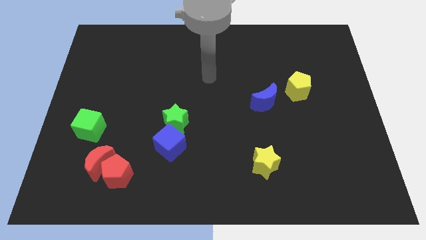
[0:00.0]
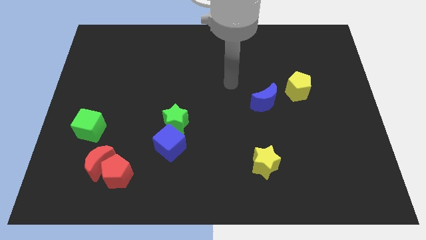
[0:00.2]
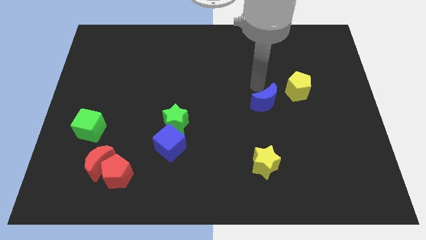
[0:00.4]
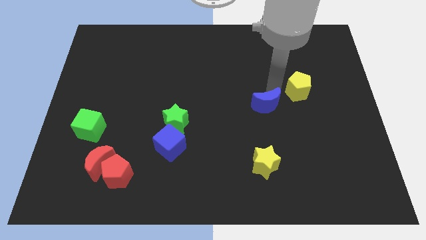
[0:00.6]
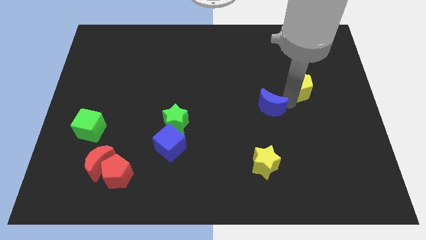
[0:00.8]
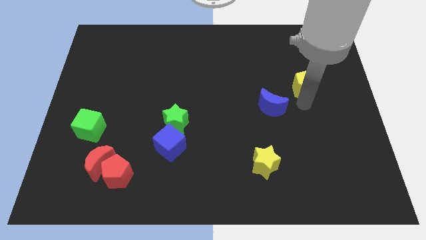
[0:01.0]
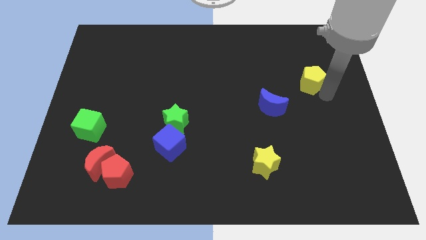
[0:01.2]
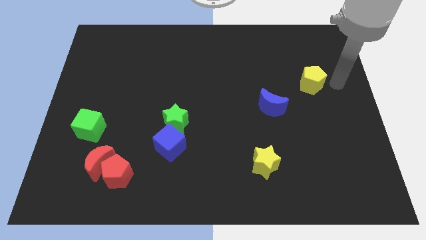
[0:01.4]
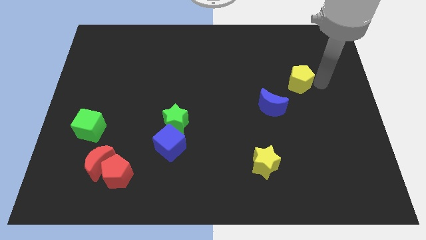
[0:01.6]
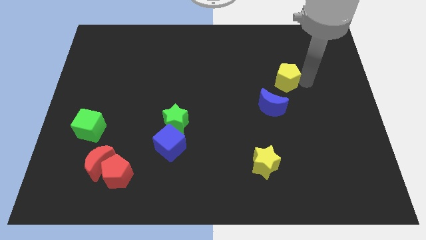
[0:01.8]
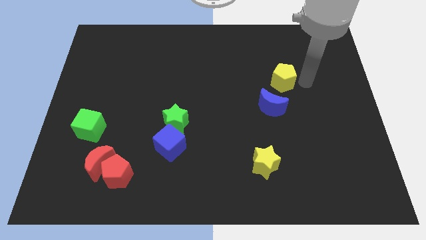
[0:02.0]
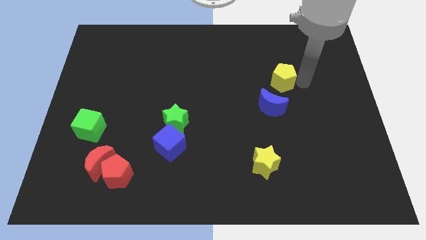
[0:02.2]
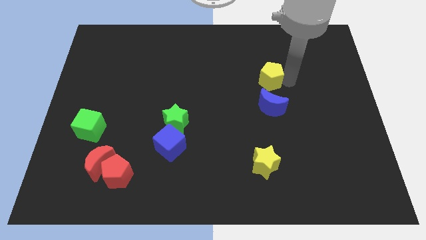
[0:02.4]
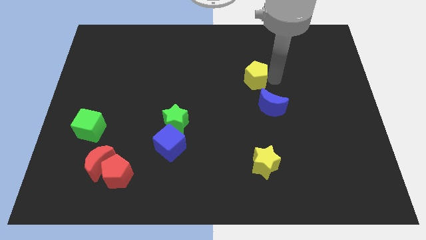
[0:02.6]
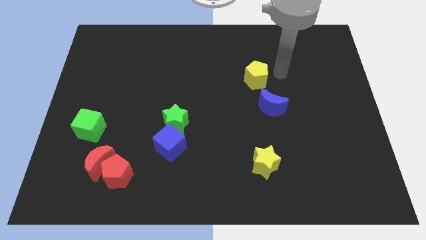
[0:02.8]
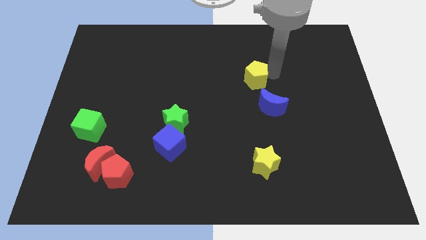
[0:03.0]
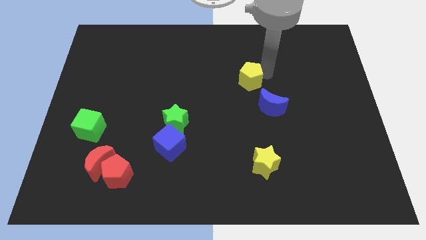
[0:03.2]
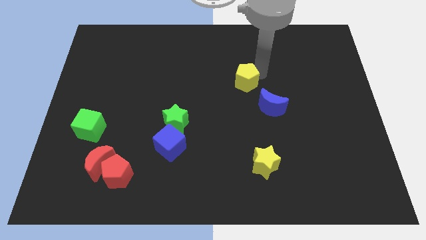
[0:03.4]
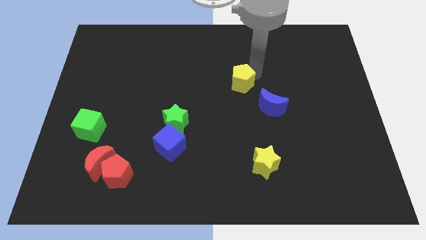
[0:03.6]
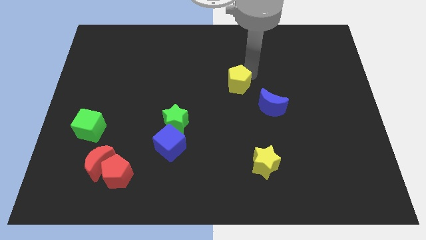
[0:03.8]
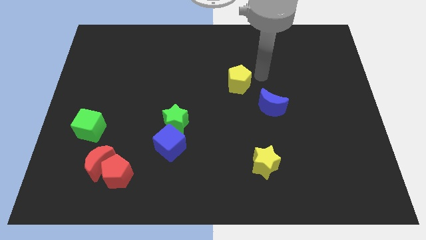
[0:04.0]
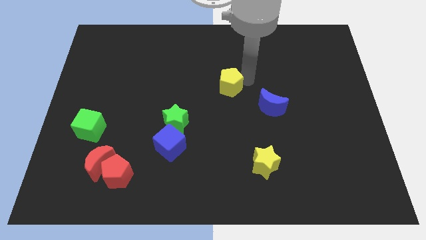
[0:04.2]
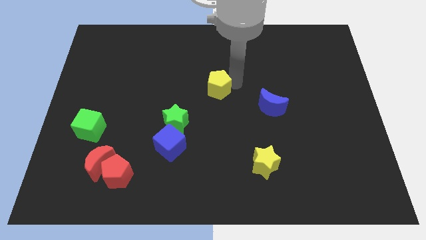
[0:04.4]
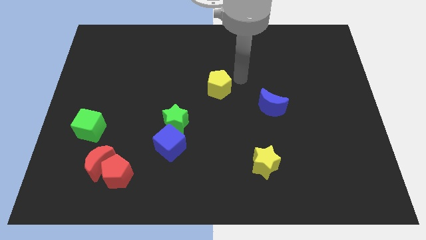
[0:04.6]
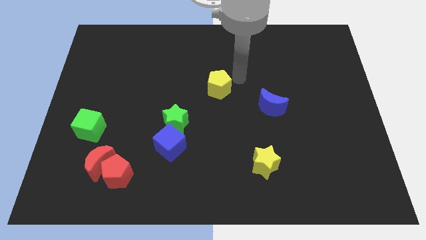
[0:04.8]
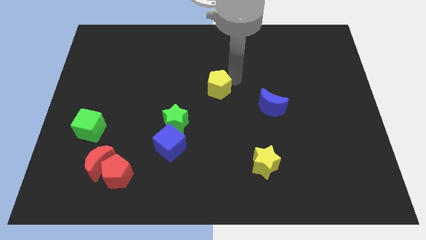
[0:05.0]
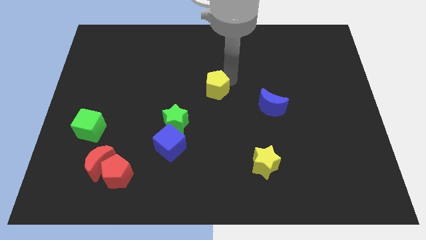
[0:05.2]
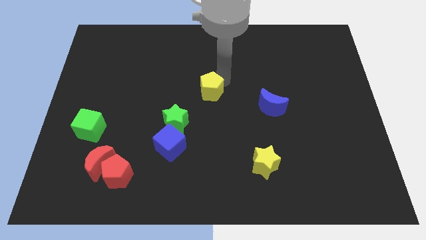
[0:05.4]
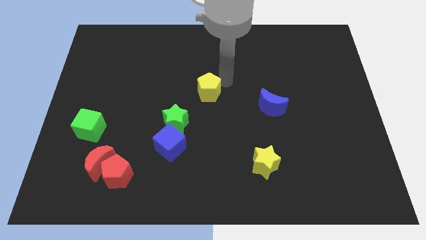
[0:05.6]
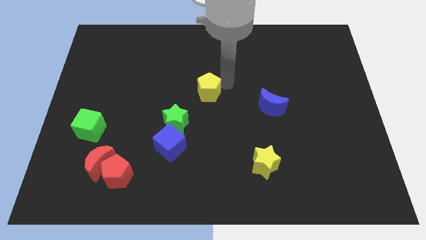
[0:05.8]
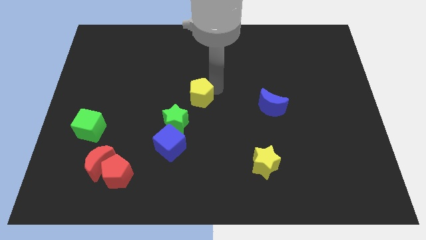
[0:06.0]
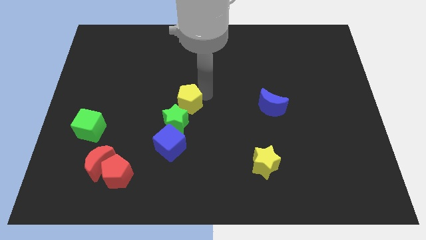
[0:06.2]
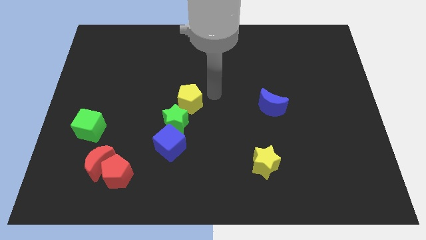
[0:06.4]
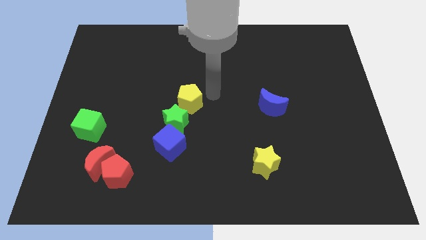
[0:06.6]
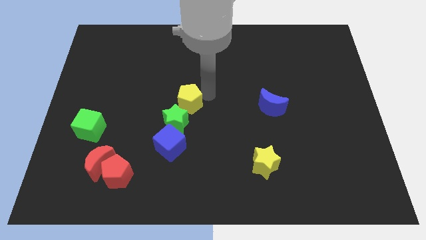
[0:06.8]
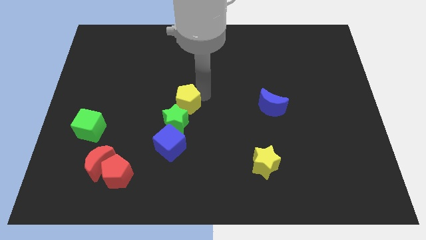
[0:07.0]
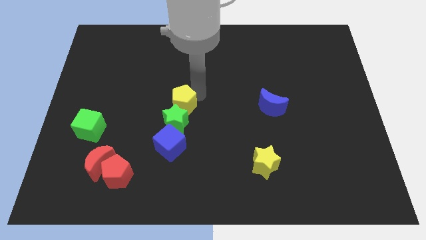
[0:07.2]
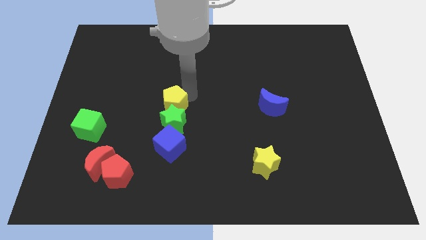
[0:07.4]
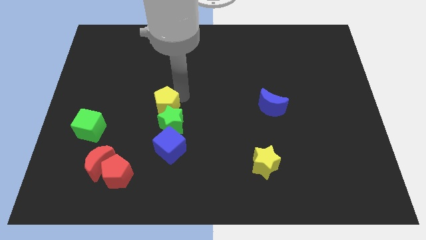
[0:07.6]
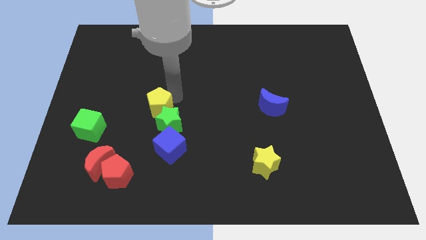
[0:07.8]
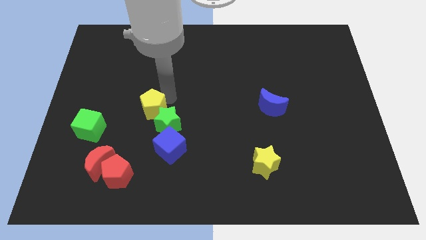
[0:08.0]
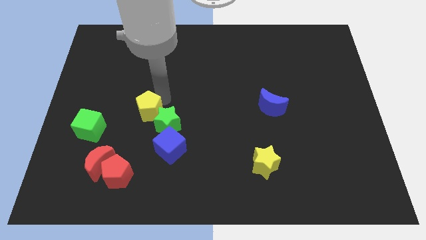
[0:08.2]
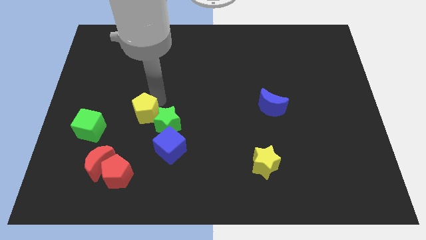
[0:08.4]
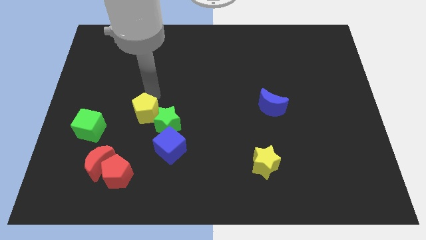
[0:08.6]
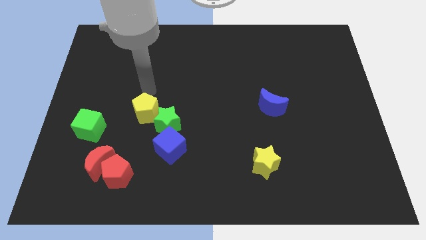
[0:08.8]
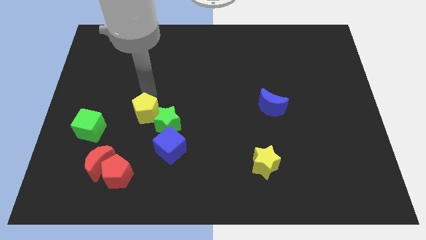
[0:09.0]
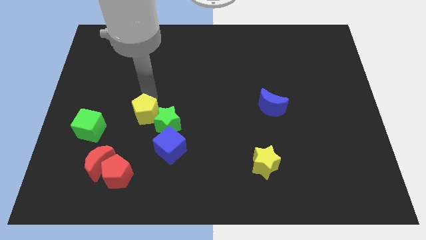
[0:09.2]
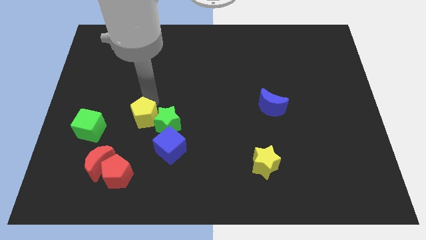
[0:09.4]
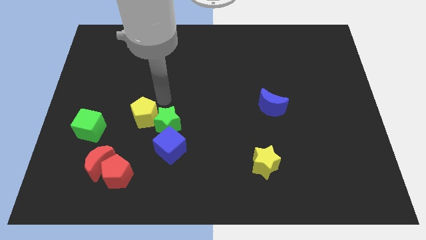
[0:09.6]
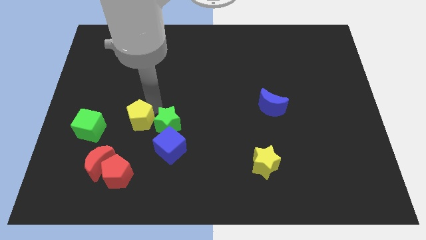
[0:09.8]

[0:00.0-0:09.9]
move the yellow pentagon to the top of the red pentagon

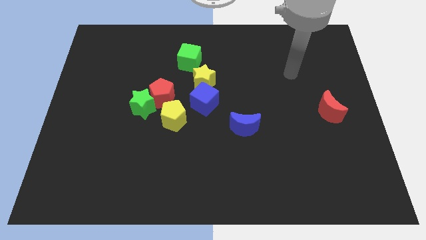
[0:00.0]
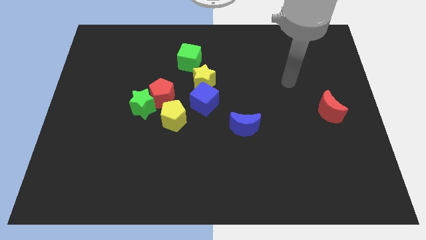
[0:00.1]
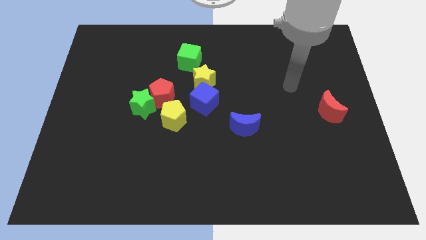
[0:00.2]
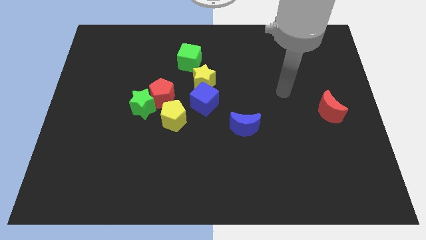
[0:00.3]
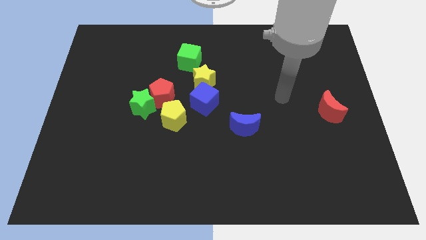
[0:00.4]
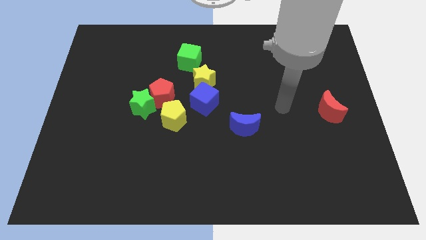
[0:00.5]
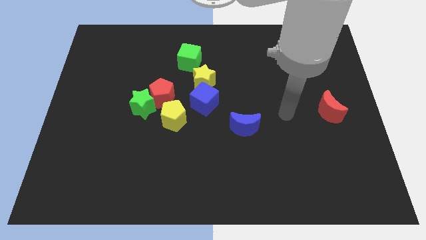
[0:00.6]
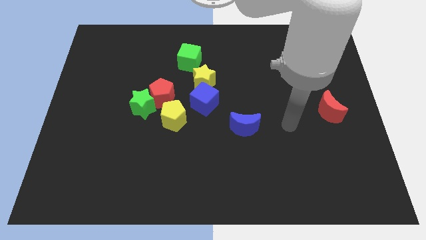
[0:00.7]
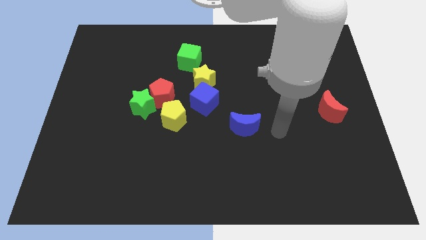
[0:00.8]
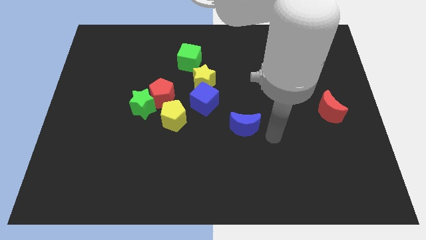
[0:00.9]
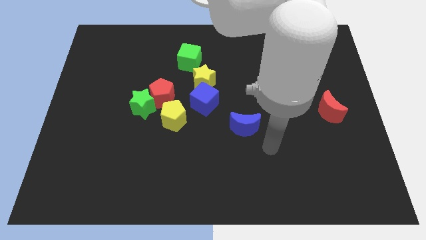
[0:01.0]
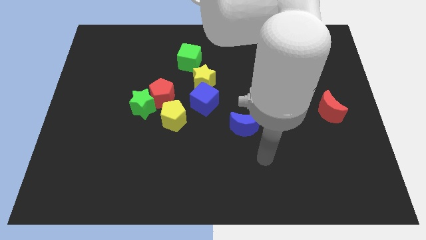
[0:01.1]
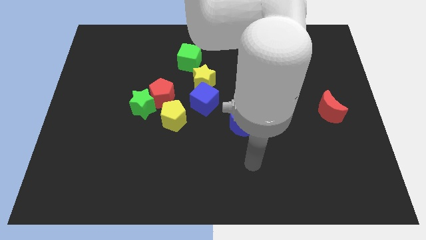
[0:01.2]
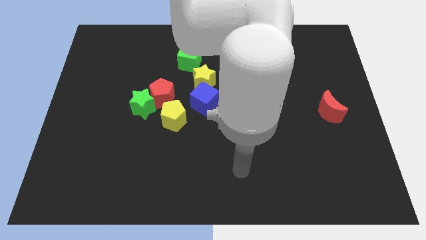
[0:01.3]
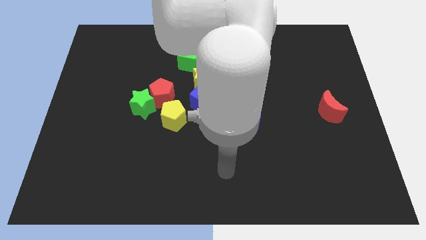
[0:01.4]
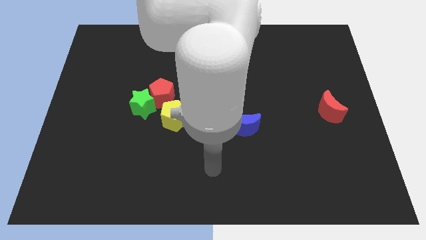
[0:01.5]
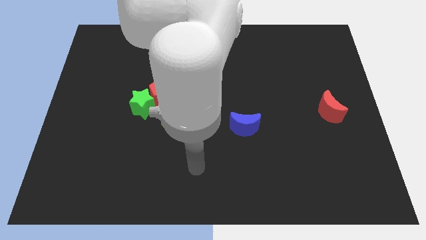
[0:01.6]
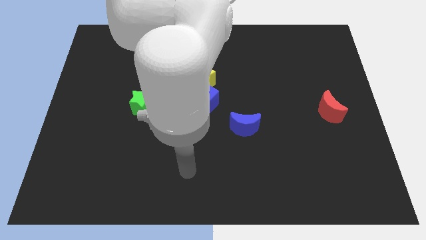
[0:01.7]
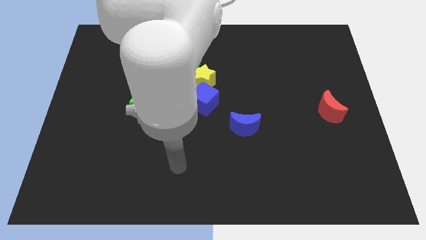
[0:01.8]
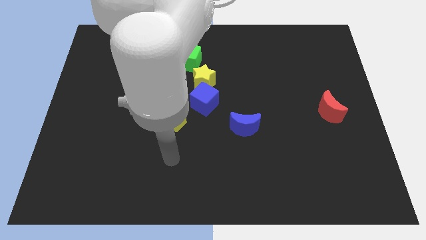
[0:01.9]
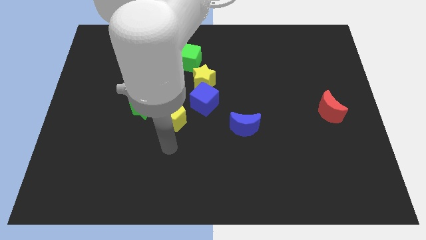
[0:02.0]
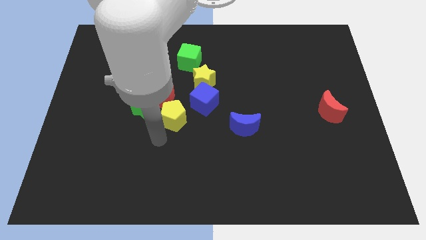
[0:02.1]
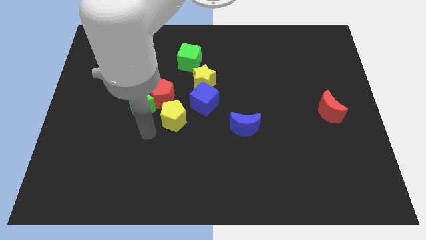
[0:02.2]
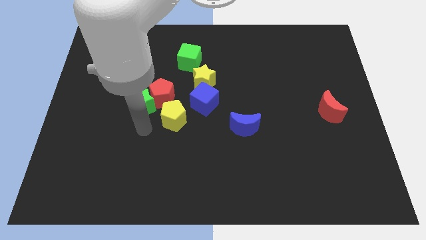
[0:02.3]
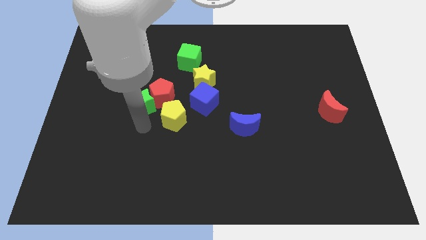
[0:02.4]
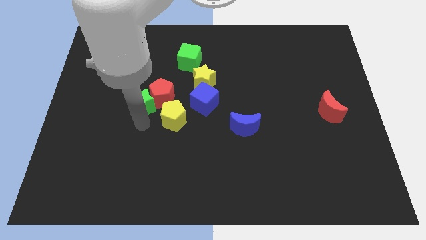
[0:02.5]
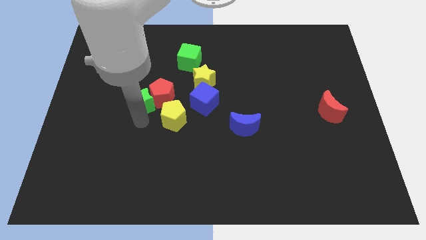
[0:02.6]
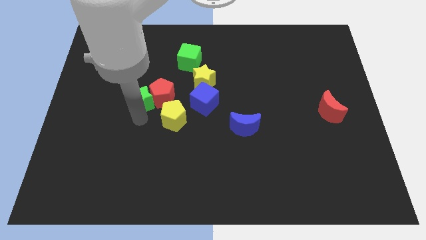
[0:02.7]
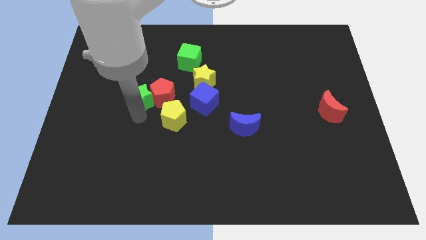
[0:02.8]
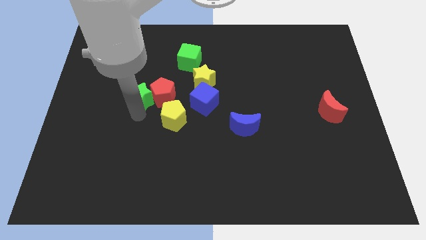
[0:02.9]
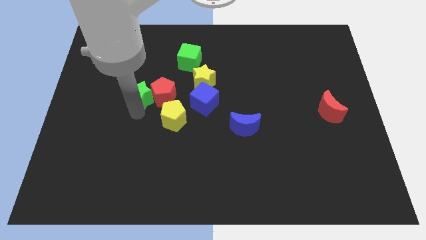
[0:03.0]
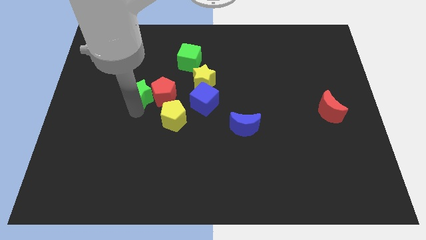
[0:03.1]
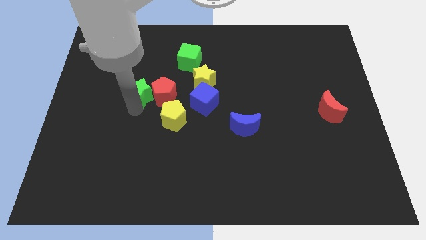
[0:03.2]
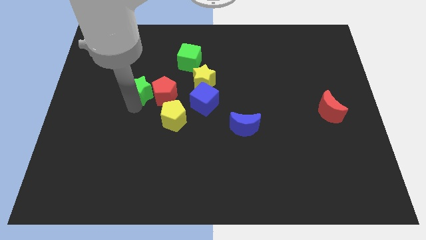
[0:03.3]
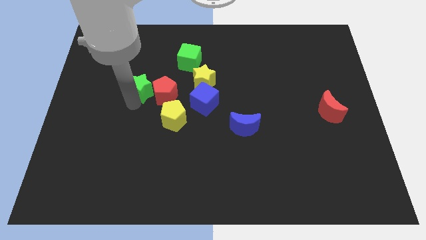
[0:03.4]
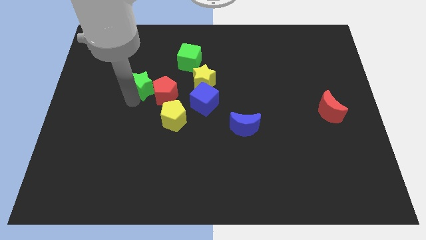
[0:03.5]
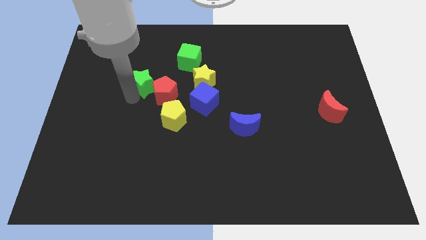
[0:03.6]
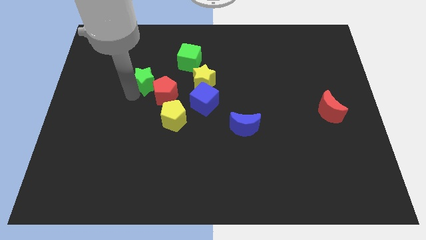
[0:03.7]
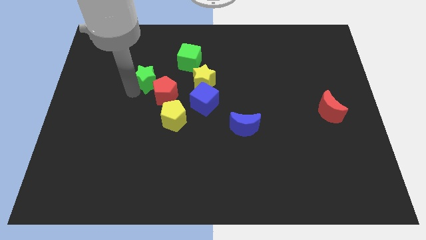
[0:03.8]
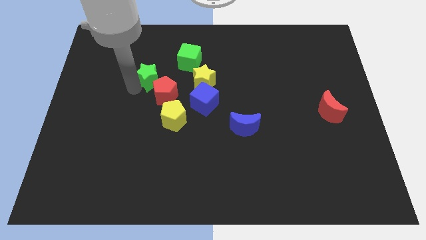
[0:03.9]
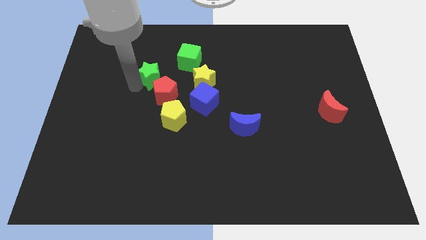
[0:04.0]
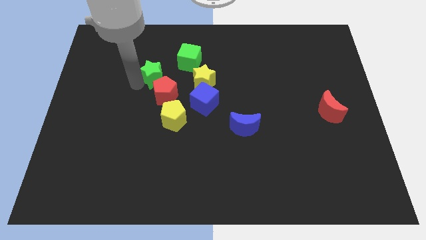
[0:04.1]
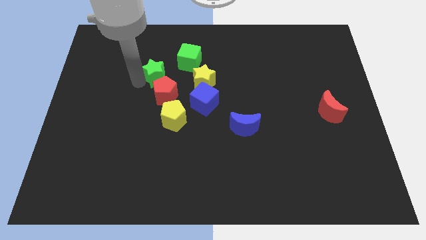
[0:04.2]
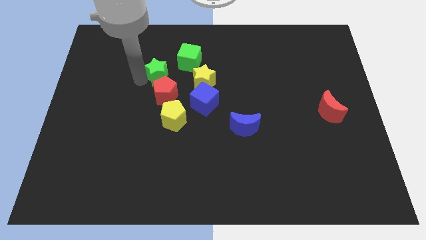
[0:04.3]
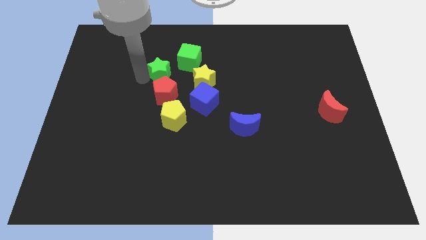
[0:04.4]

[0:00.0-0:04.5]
put the green star to the top of the yellow pentagon
